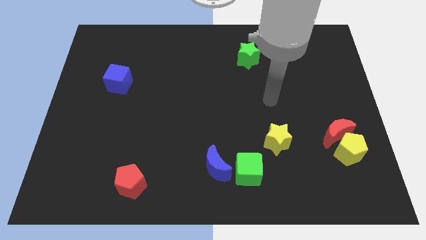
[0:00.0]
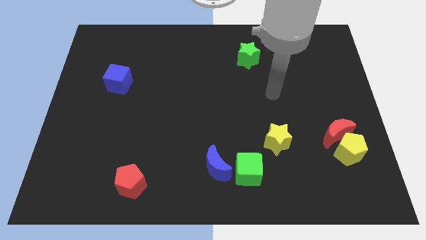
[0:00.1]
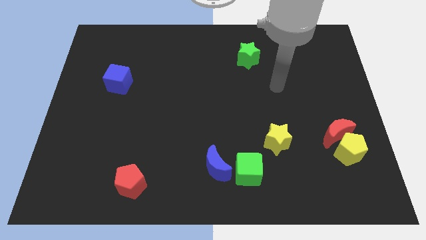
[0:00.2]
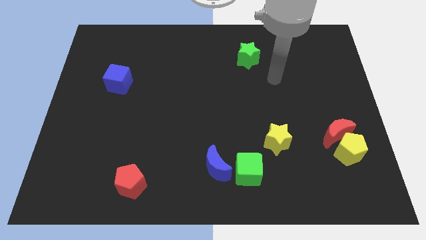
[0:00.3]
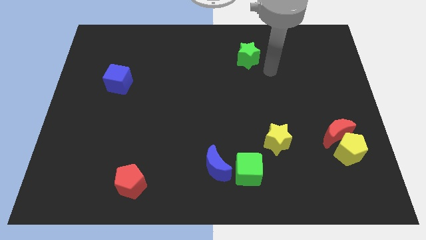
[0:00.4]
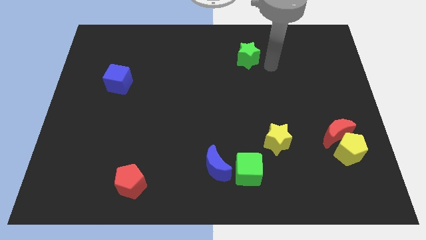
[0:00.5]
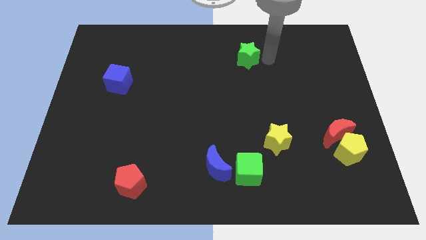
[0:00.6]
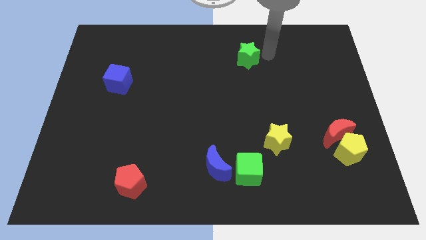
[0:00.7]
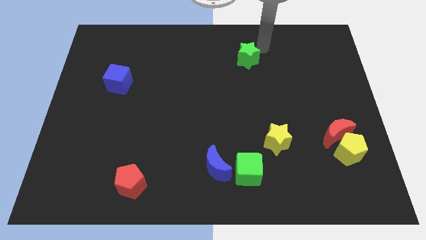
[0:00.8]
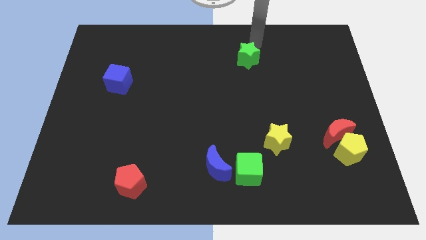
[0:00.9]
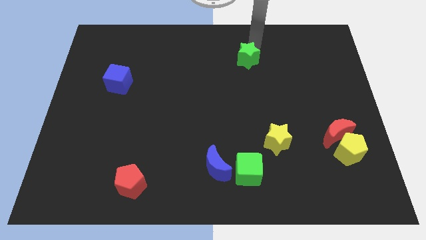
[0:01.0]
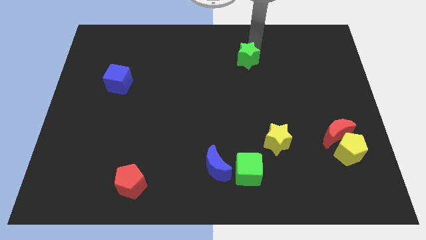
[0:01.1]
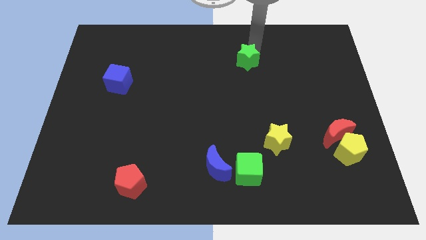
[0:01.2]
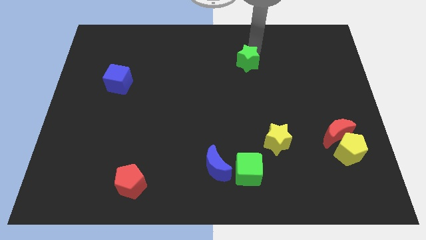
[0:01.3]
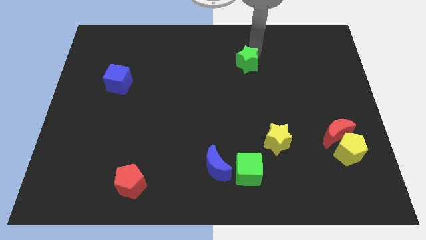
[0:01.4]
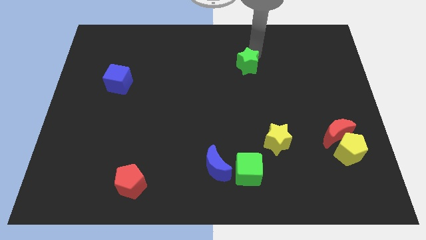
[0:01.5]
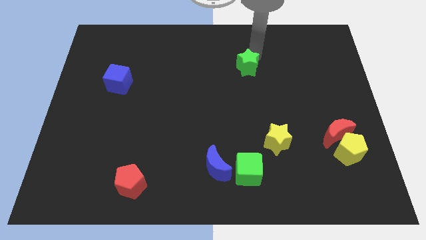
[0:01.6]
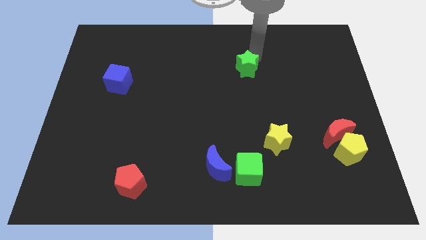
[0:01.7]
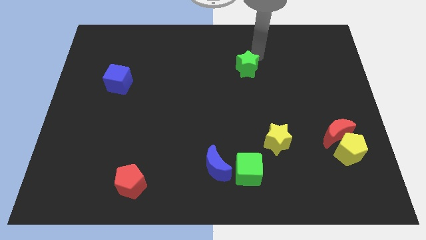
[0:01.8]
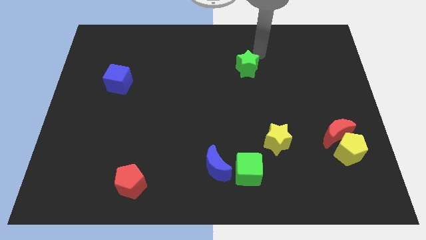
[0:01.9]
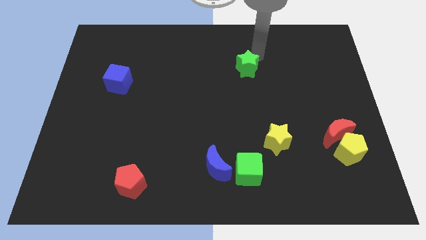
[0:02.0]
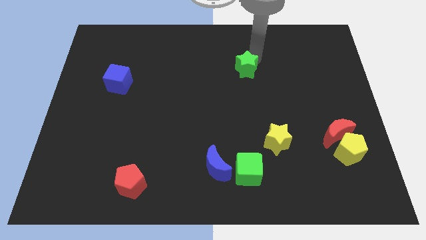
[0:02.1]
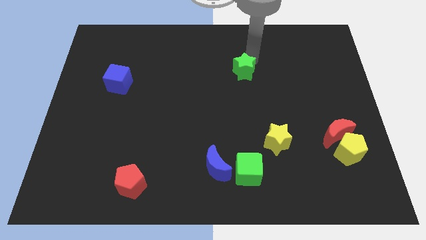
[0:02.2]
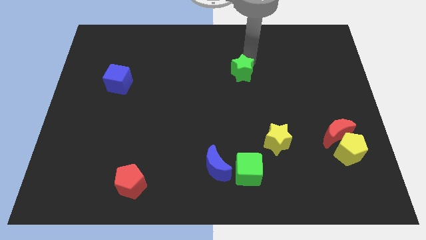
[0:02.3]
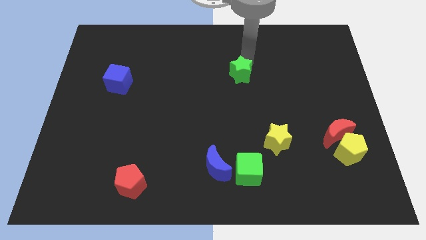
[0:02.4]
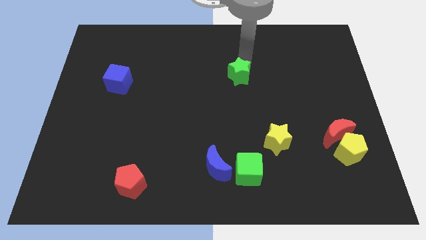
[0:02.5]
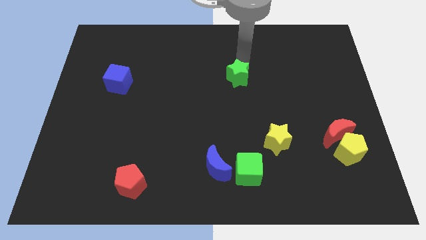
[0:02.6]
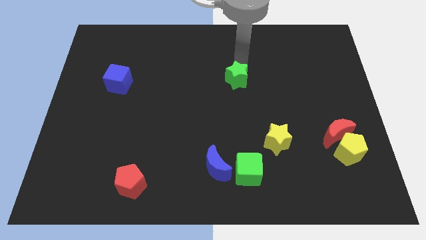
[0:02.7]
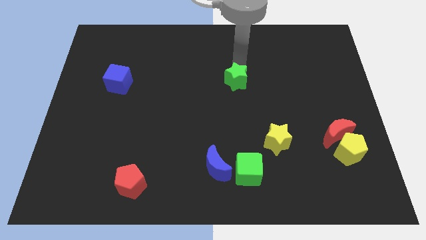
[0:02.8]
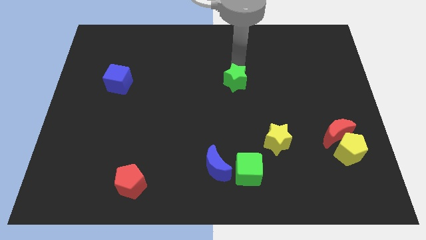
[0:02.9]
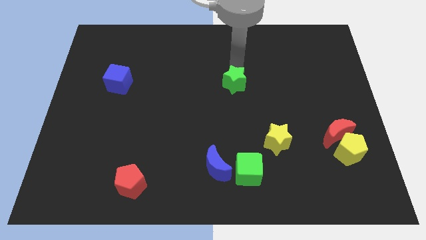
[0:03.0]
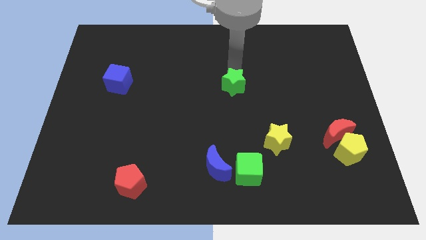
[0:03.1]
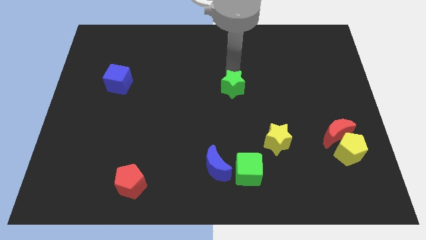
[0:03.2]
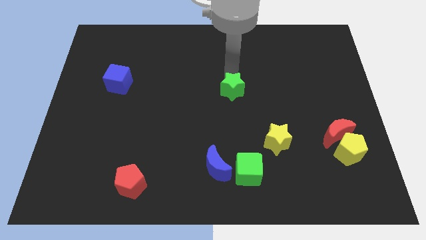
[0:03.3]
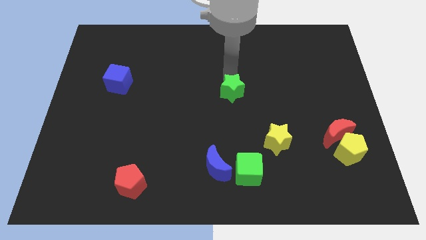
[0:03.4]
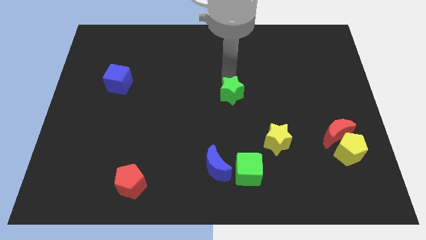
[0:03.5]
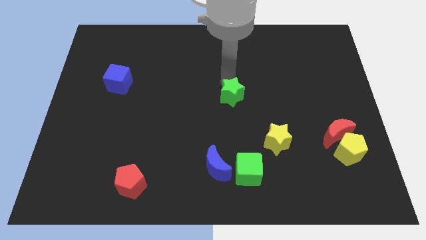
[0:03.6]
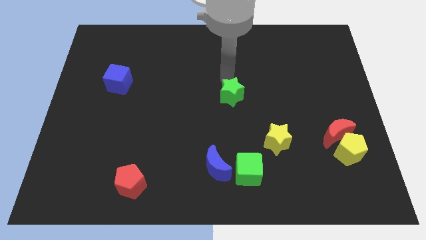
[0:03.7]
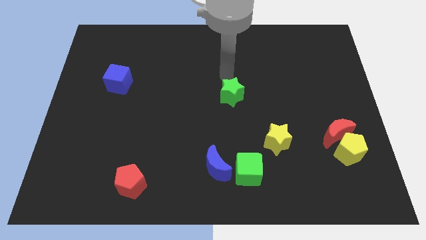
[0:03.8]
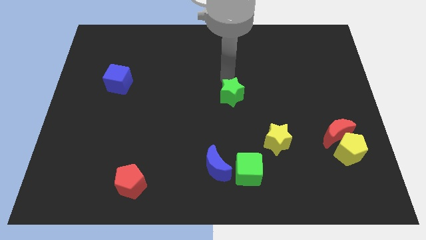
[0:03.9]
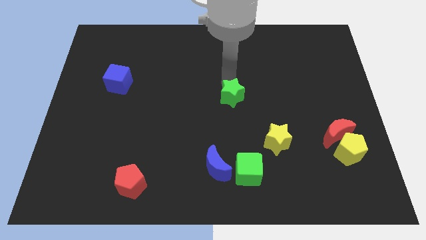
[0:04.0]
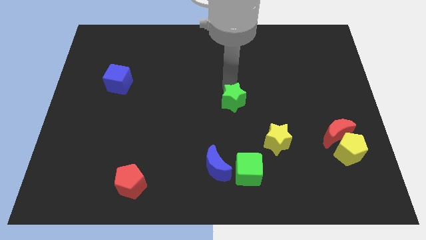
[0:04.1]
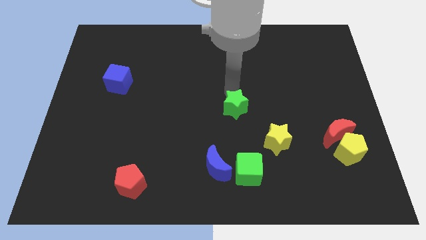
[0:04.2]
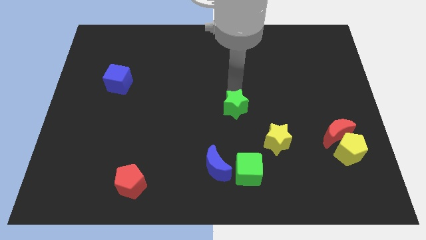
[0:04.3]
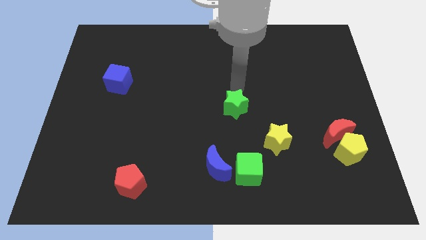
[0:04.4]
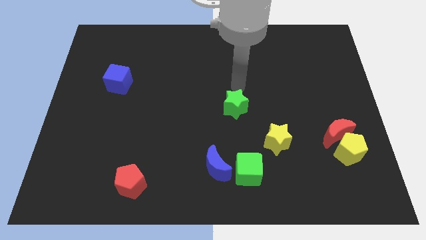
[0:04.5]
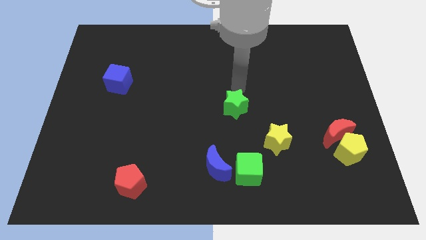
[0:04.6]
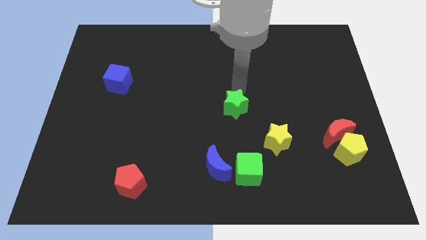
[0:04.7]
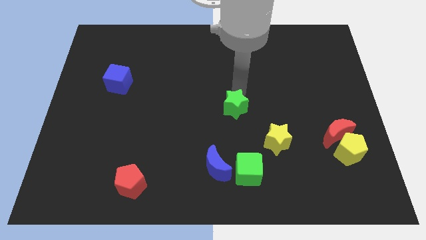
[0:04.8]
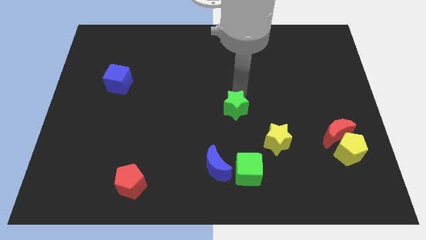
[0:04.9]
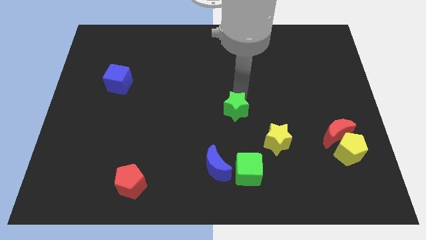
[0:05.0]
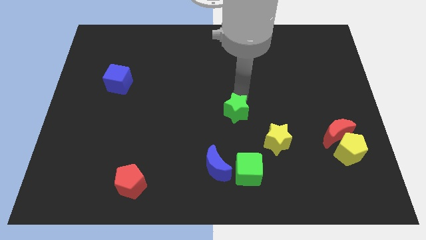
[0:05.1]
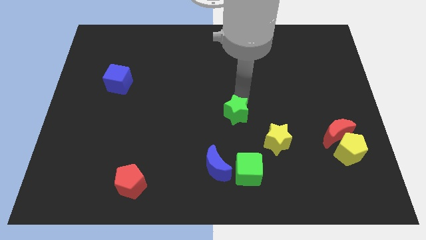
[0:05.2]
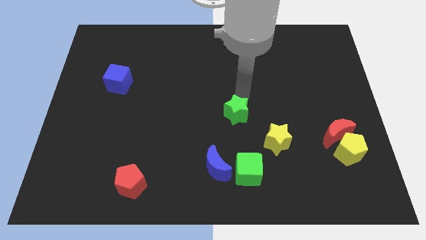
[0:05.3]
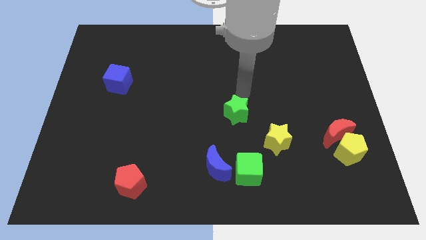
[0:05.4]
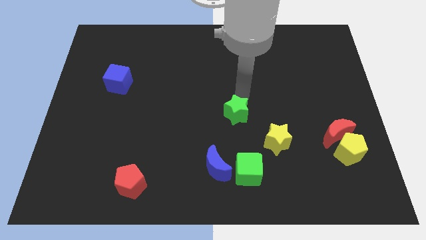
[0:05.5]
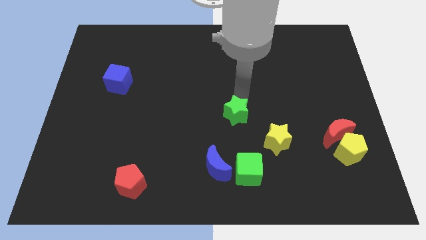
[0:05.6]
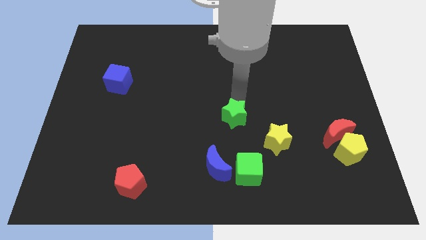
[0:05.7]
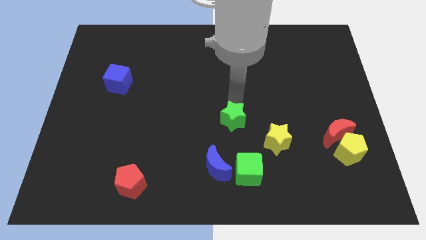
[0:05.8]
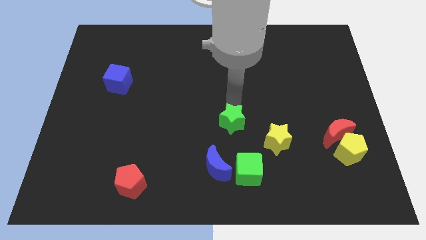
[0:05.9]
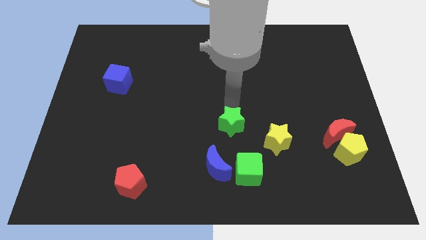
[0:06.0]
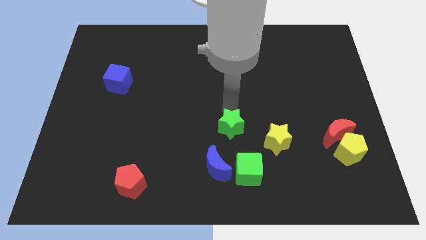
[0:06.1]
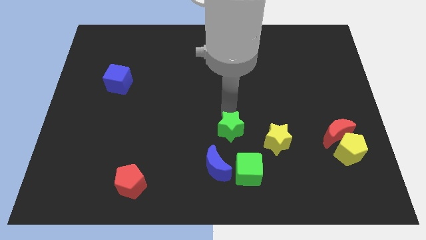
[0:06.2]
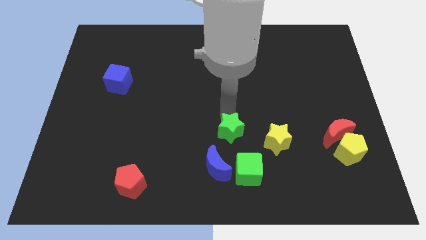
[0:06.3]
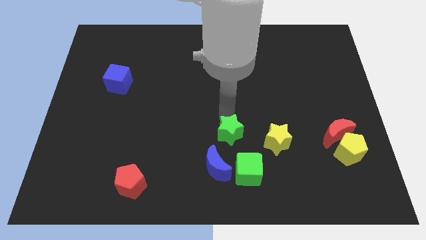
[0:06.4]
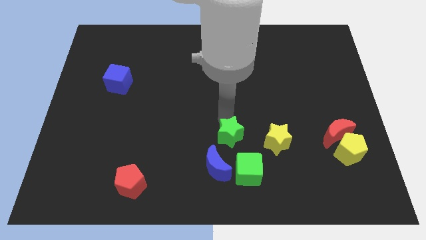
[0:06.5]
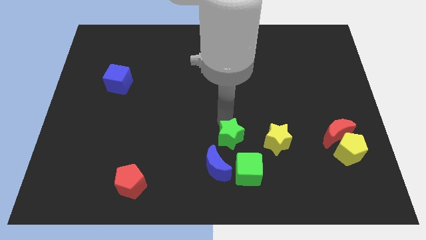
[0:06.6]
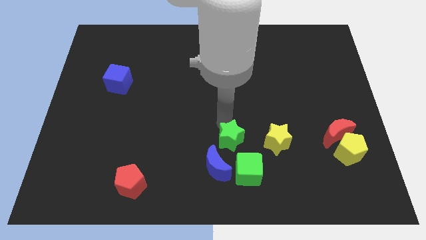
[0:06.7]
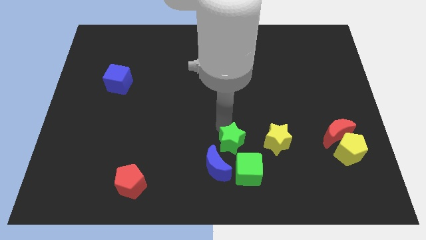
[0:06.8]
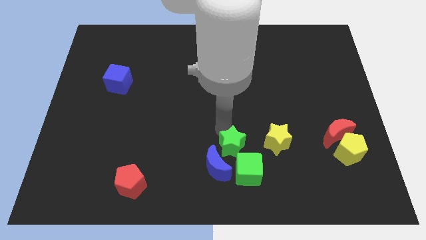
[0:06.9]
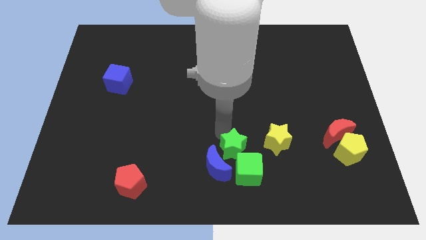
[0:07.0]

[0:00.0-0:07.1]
push the green star next to the green cube
